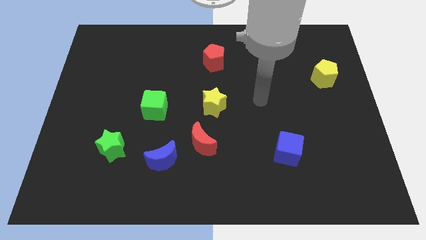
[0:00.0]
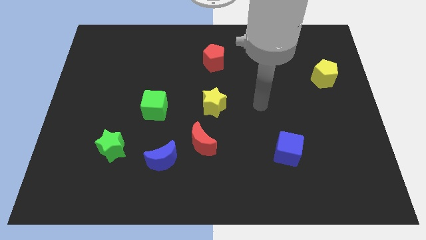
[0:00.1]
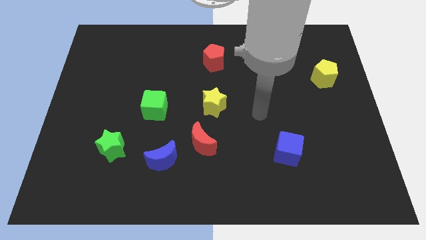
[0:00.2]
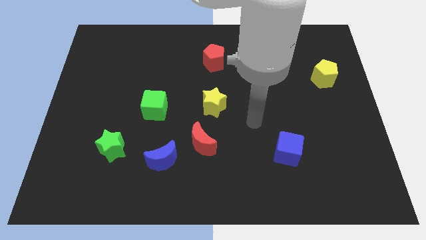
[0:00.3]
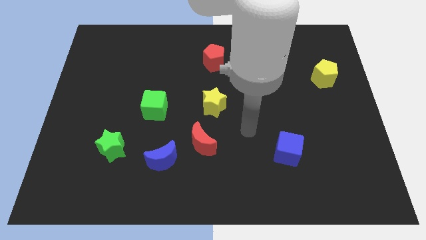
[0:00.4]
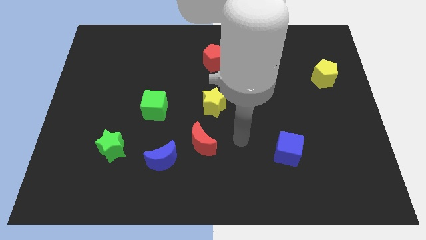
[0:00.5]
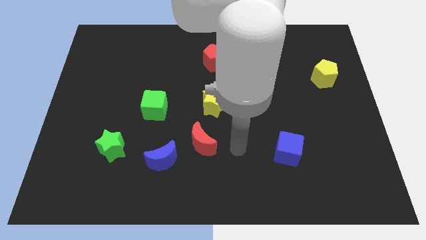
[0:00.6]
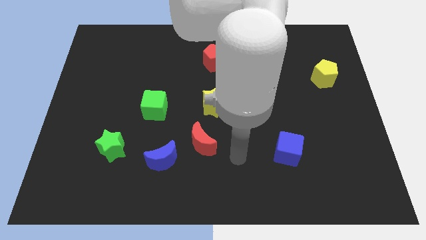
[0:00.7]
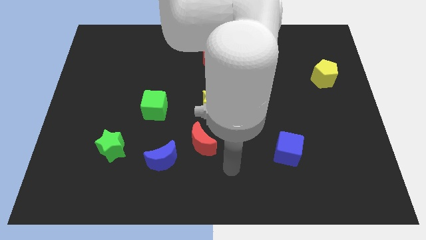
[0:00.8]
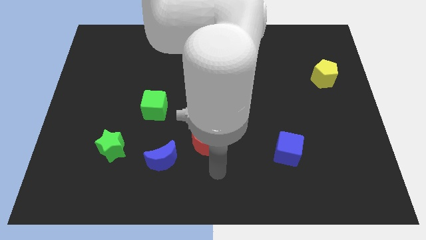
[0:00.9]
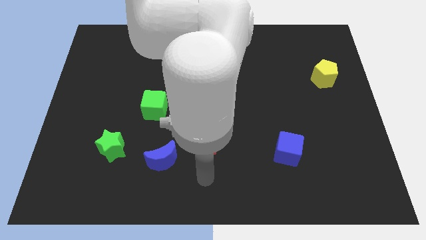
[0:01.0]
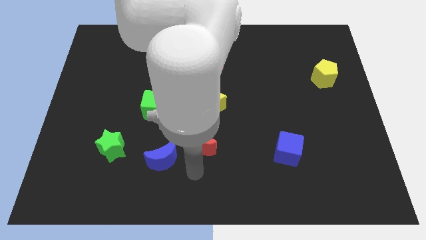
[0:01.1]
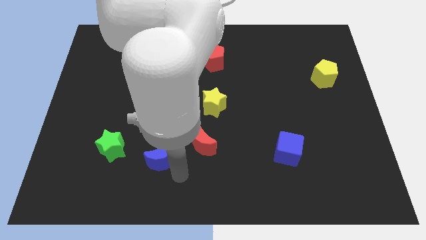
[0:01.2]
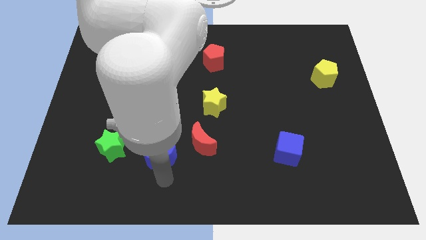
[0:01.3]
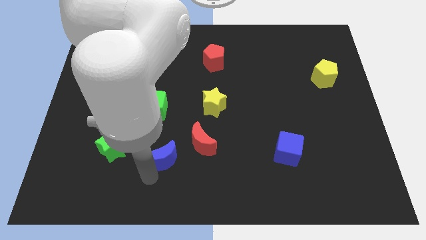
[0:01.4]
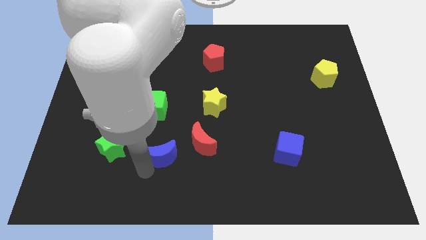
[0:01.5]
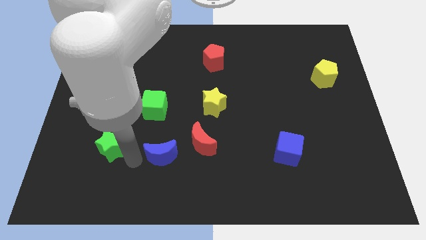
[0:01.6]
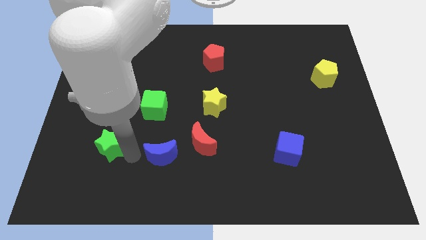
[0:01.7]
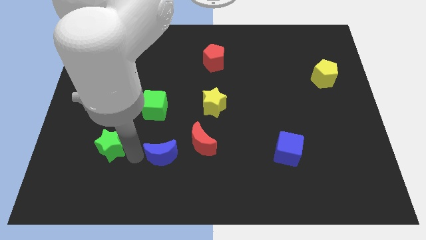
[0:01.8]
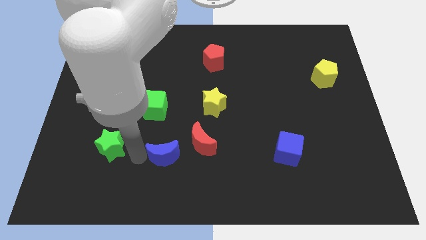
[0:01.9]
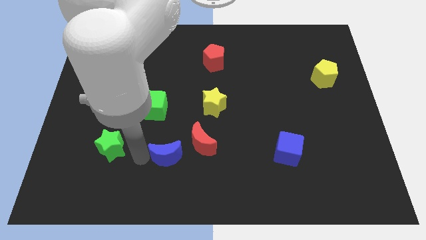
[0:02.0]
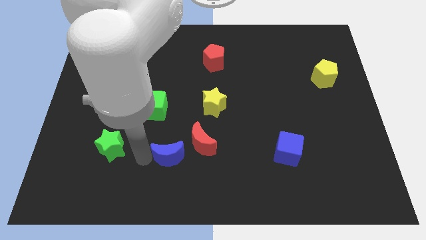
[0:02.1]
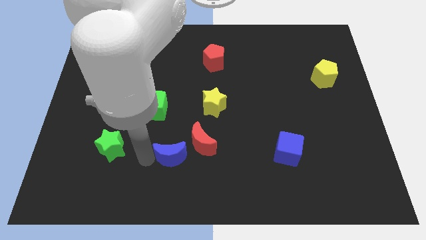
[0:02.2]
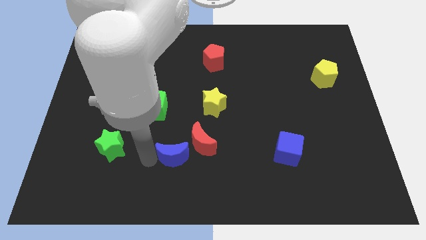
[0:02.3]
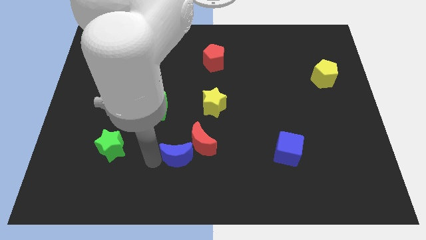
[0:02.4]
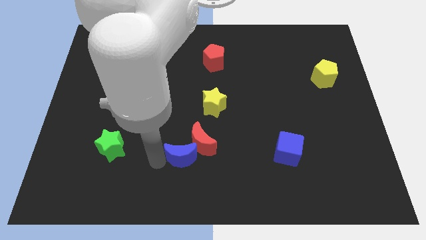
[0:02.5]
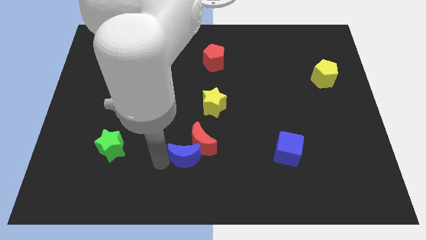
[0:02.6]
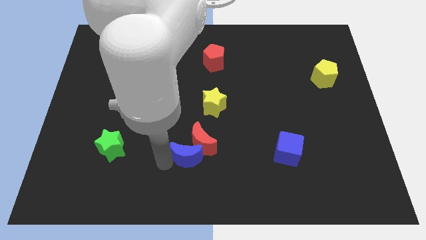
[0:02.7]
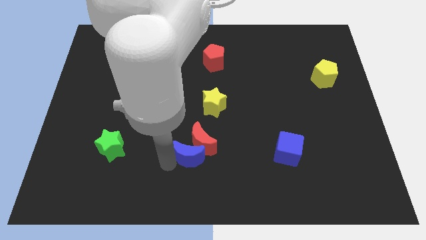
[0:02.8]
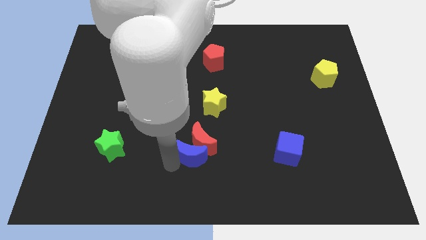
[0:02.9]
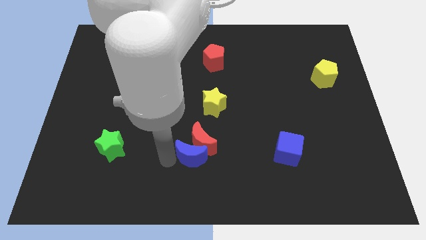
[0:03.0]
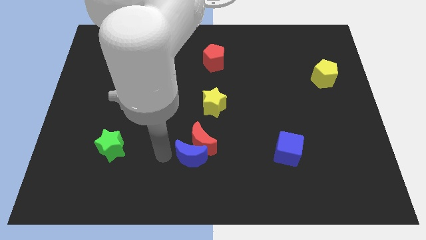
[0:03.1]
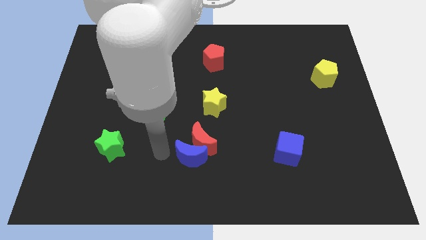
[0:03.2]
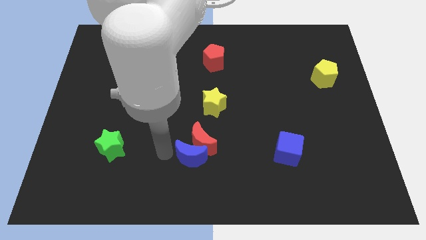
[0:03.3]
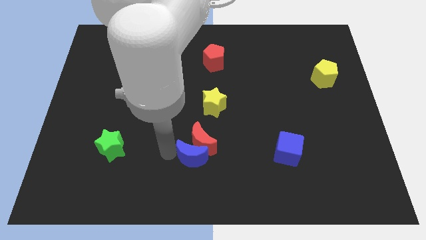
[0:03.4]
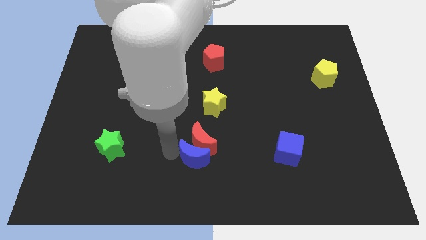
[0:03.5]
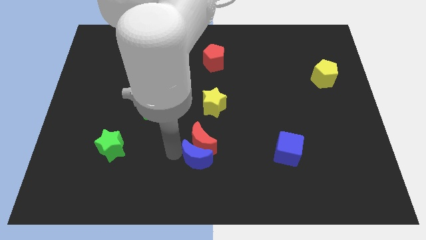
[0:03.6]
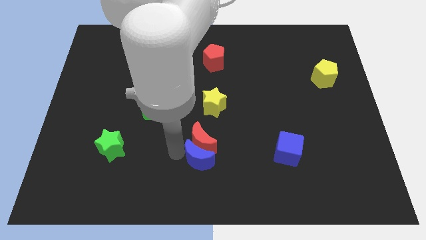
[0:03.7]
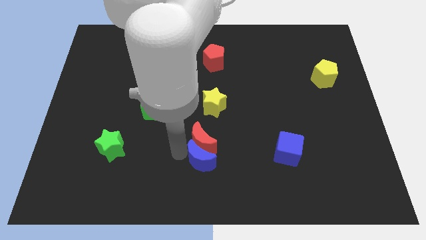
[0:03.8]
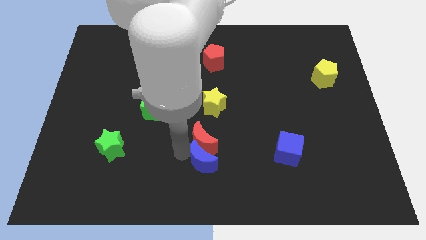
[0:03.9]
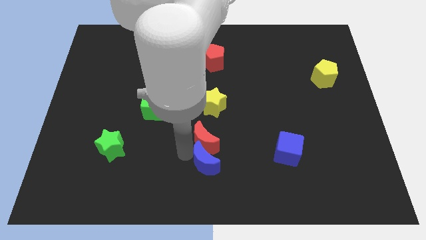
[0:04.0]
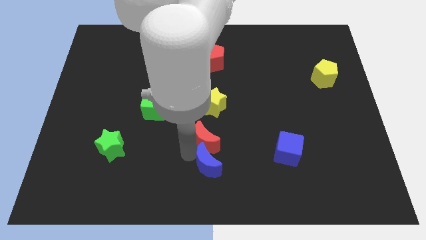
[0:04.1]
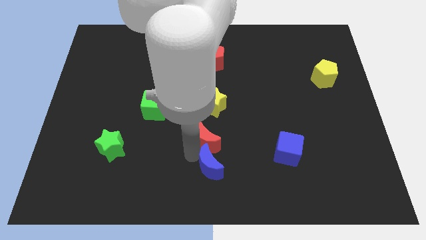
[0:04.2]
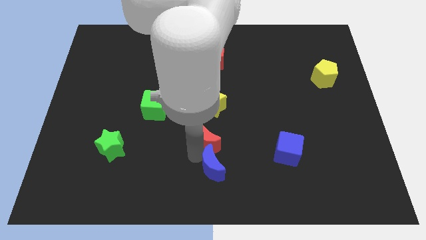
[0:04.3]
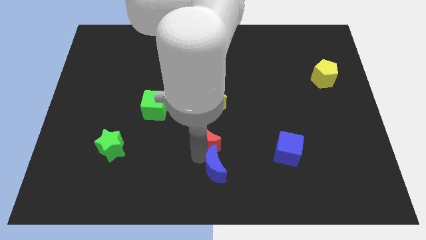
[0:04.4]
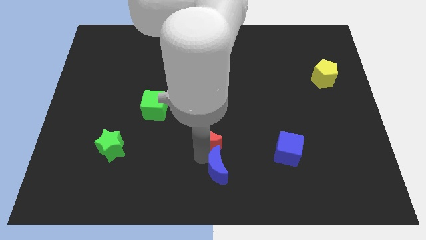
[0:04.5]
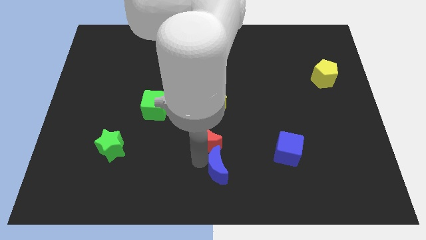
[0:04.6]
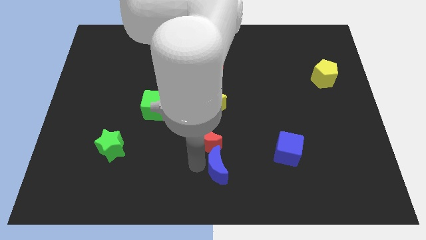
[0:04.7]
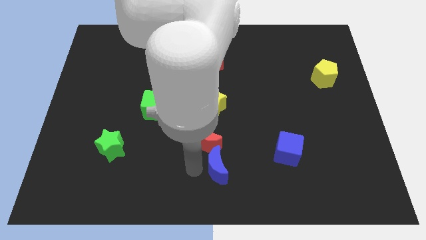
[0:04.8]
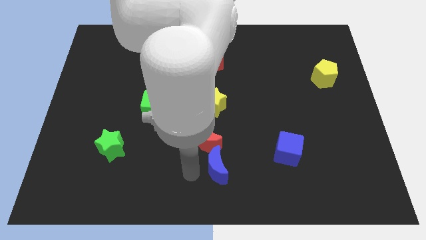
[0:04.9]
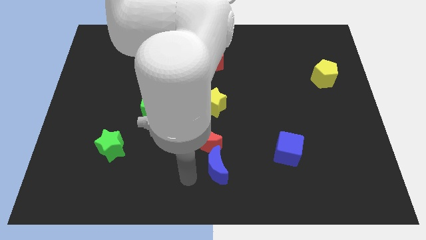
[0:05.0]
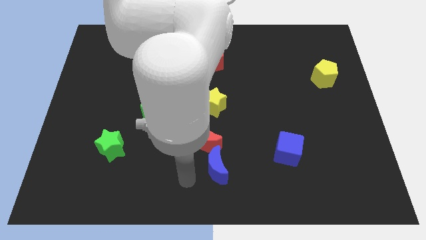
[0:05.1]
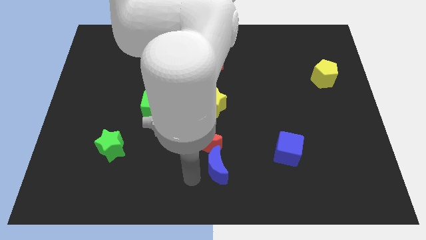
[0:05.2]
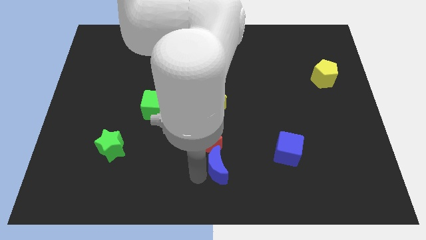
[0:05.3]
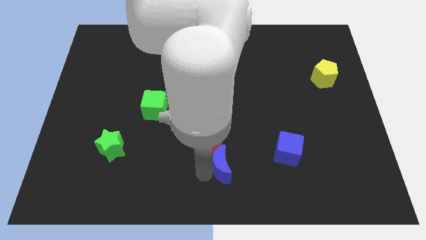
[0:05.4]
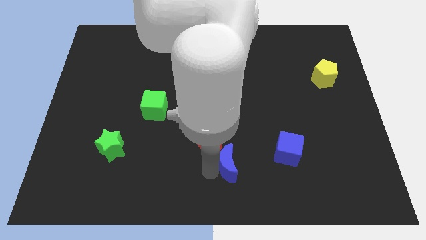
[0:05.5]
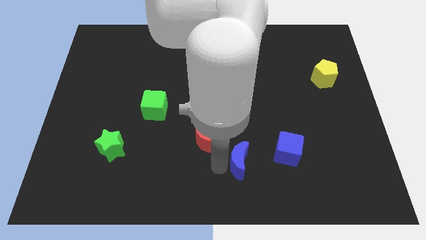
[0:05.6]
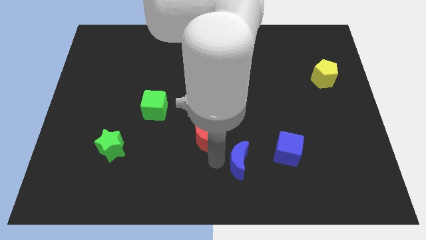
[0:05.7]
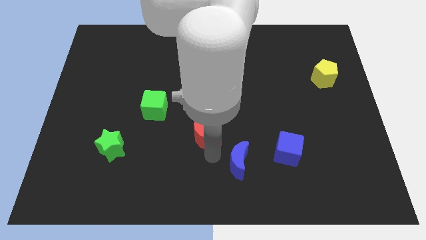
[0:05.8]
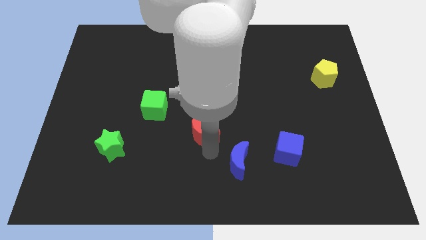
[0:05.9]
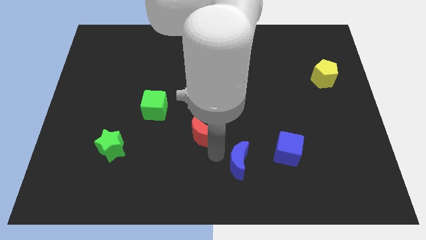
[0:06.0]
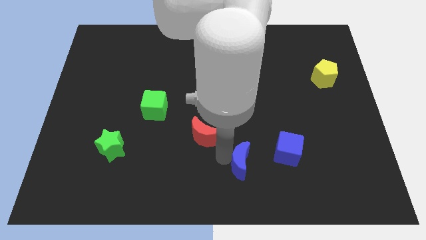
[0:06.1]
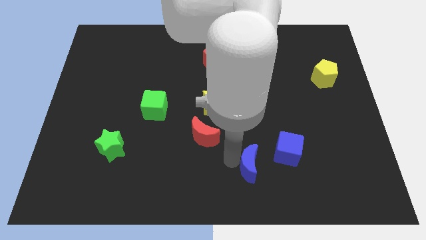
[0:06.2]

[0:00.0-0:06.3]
slide the blue moon diagonally down and to the left of the blue cube

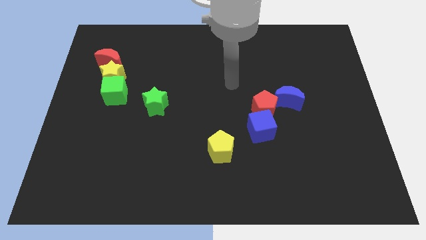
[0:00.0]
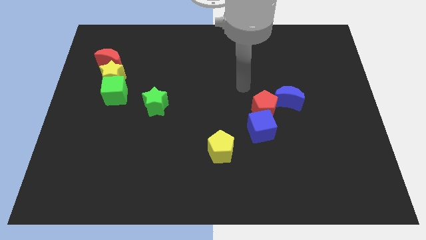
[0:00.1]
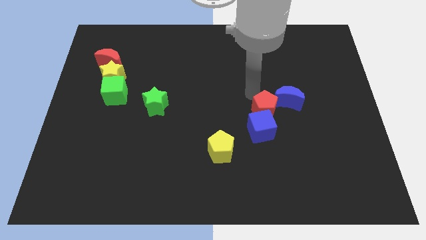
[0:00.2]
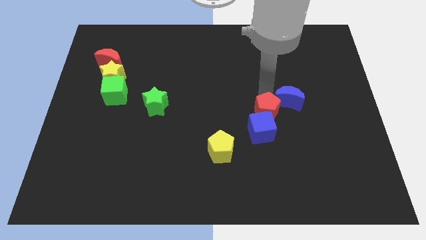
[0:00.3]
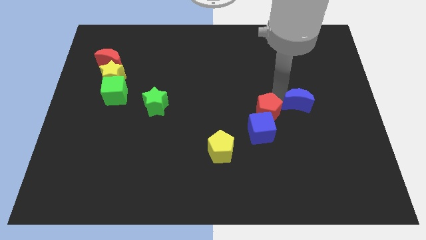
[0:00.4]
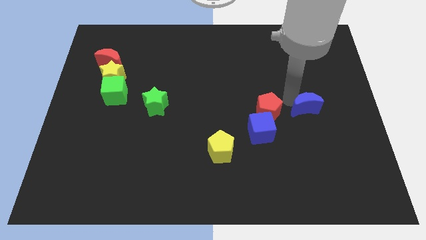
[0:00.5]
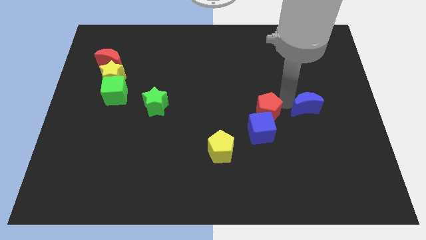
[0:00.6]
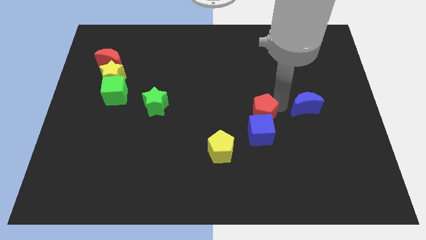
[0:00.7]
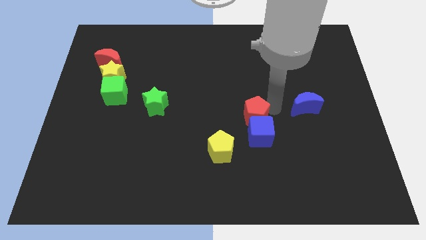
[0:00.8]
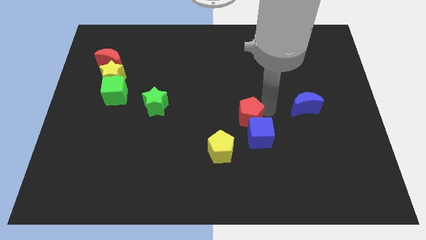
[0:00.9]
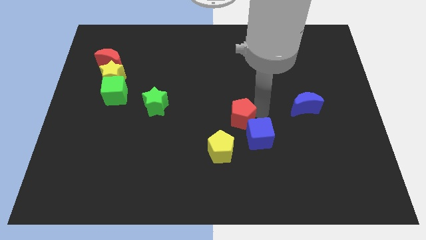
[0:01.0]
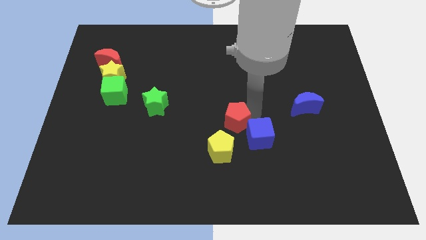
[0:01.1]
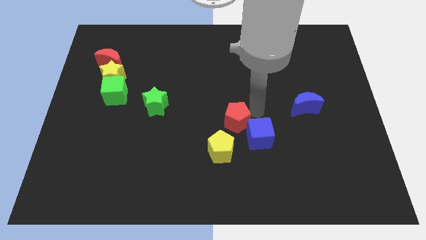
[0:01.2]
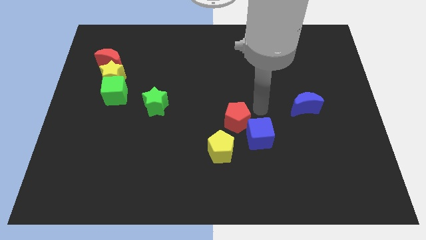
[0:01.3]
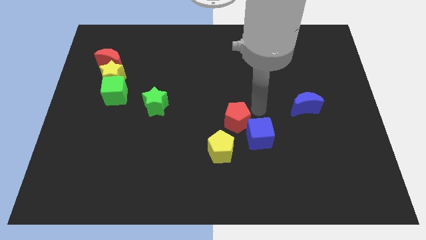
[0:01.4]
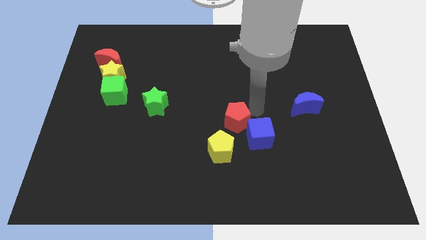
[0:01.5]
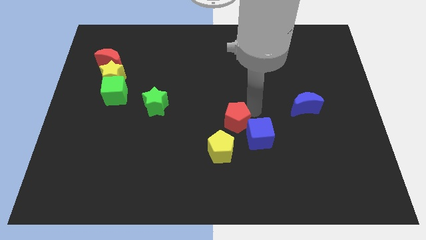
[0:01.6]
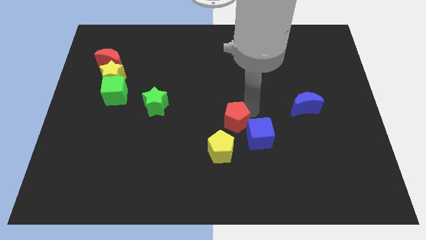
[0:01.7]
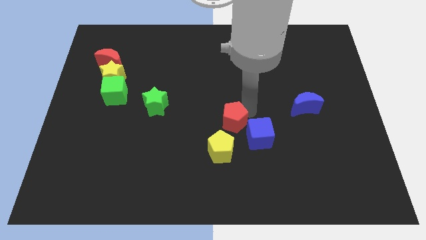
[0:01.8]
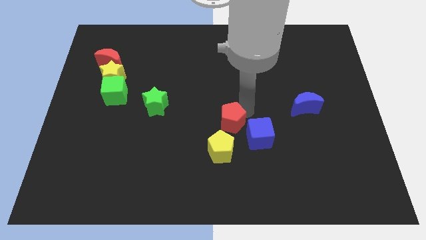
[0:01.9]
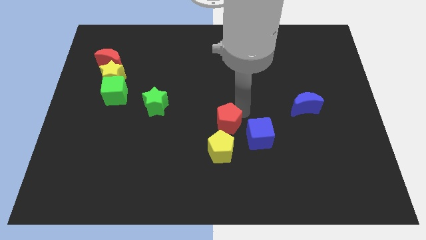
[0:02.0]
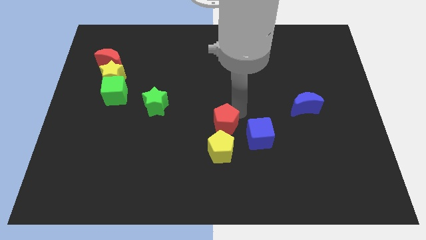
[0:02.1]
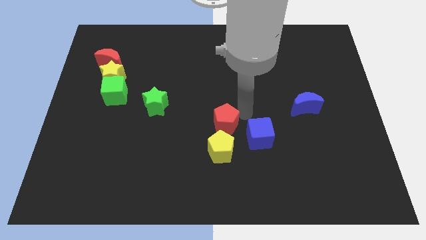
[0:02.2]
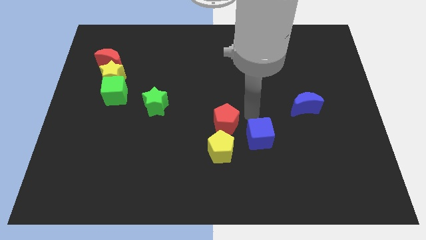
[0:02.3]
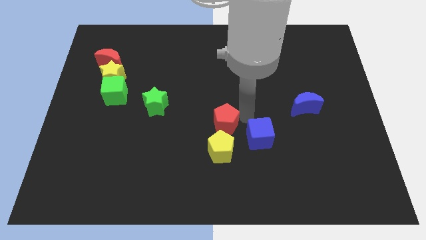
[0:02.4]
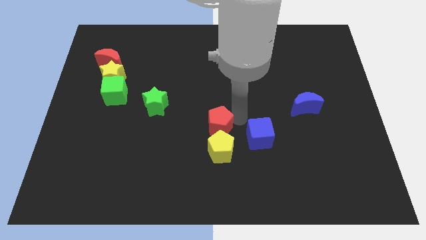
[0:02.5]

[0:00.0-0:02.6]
put the red pentagon diagonally up and to the left of the yellow pentagon
